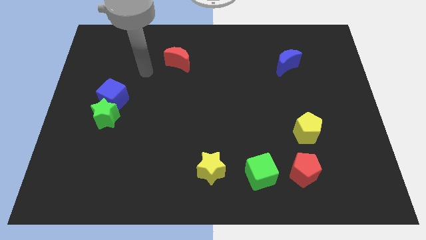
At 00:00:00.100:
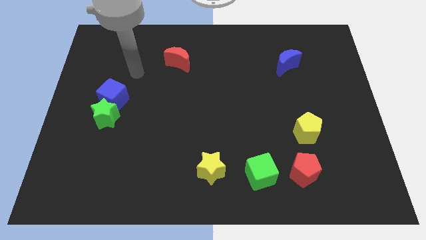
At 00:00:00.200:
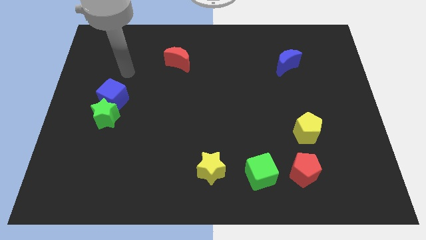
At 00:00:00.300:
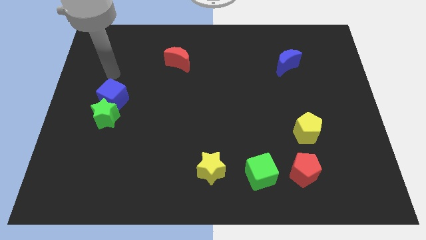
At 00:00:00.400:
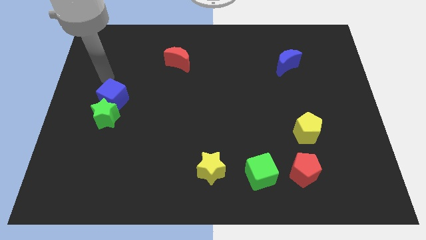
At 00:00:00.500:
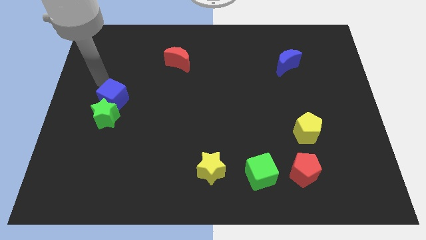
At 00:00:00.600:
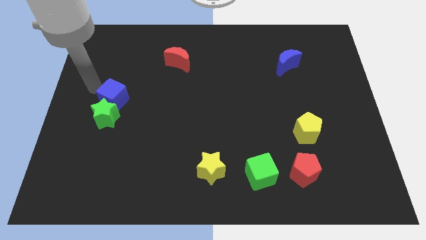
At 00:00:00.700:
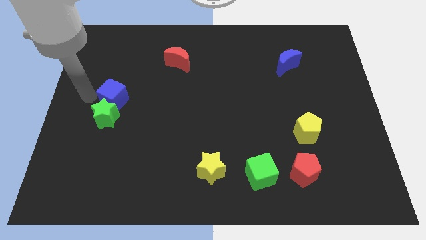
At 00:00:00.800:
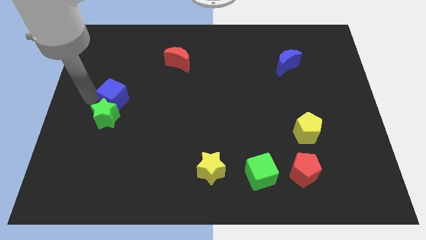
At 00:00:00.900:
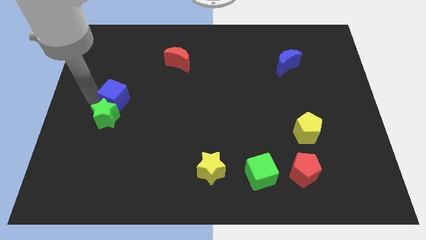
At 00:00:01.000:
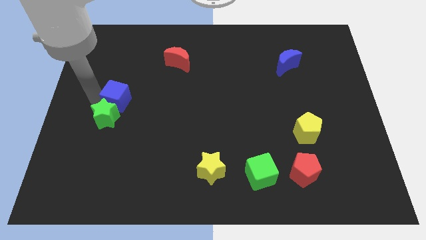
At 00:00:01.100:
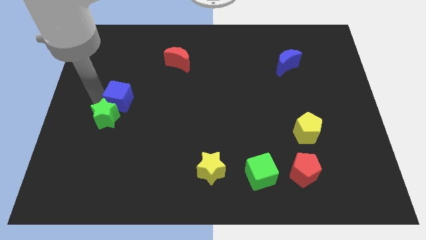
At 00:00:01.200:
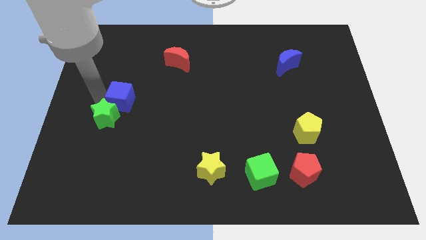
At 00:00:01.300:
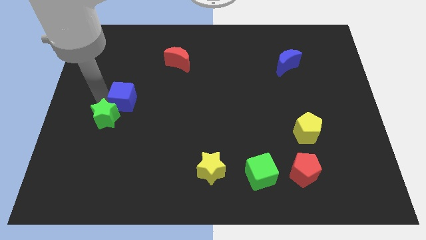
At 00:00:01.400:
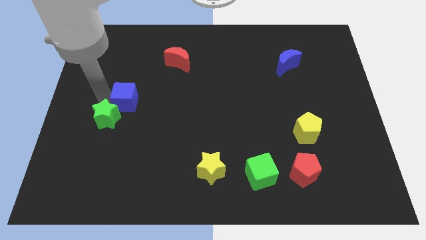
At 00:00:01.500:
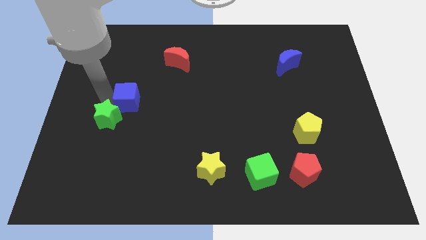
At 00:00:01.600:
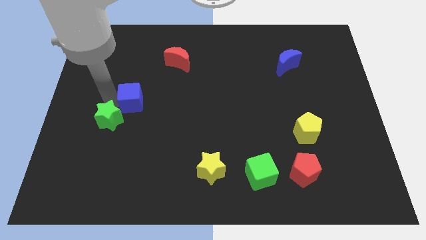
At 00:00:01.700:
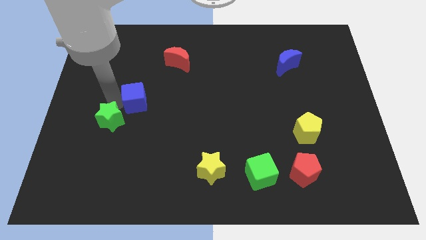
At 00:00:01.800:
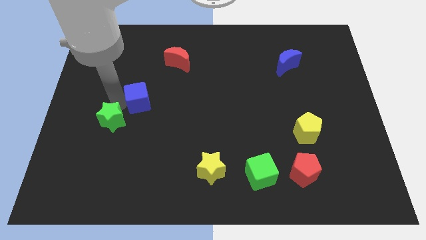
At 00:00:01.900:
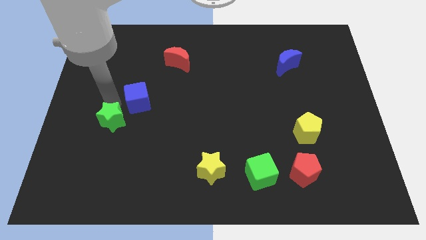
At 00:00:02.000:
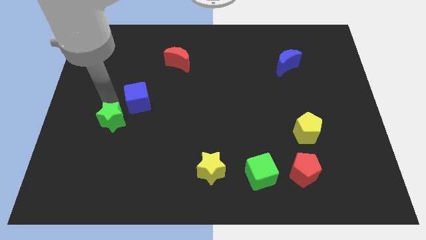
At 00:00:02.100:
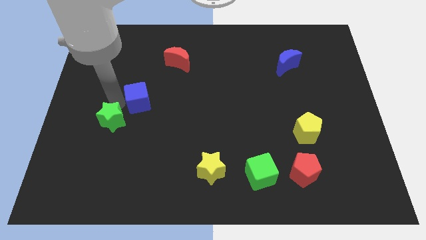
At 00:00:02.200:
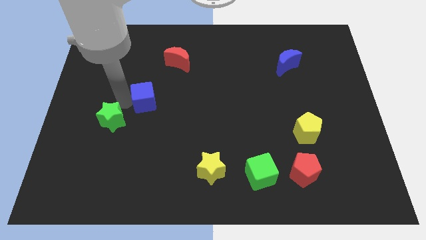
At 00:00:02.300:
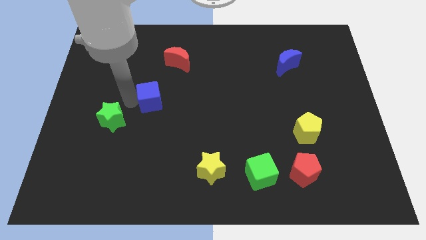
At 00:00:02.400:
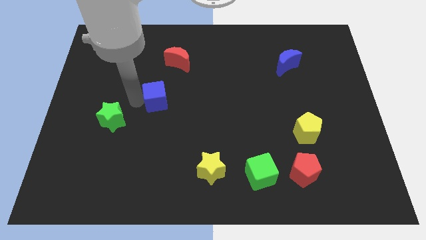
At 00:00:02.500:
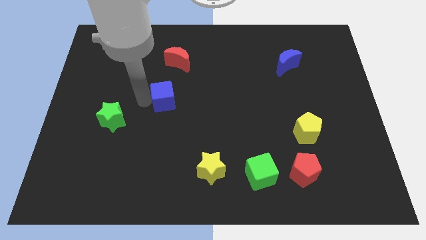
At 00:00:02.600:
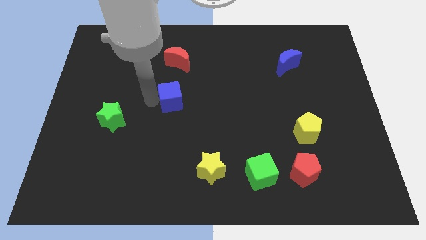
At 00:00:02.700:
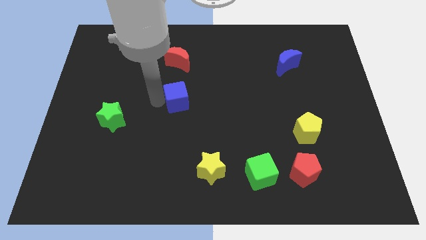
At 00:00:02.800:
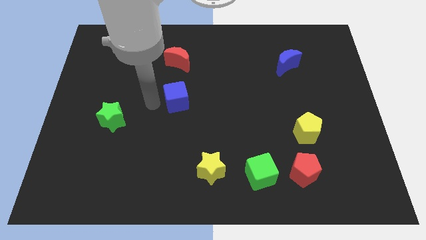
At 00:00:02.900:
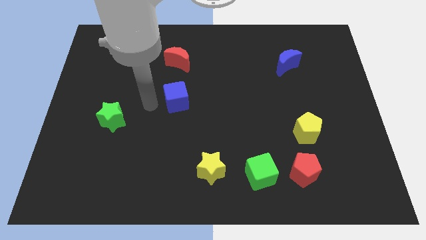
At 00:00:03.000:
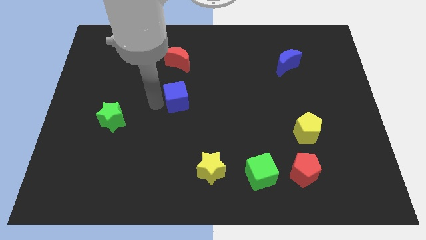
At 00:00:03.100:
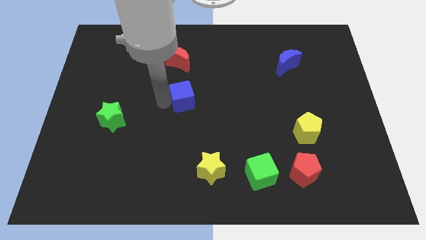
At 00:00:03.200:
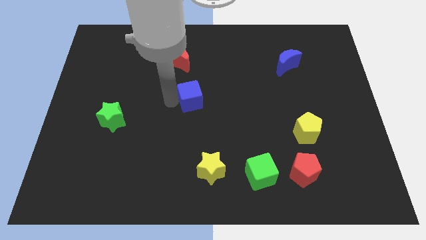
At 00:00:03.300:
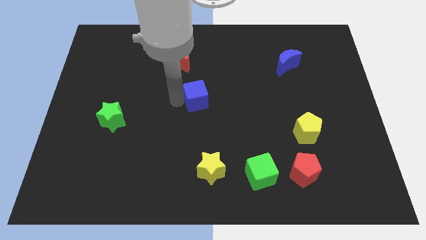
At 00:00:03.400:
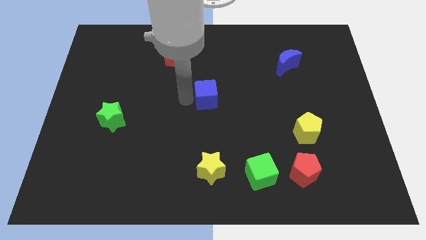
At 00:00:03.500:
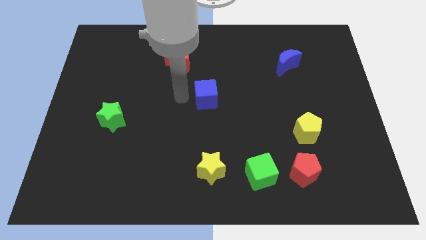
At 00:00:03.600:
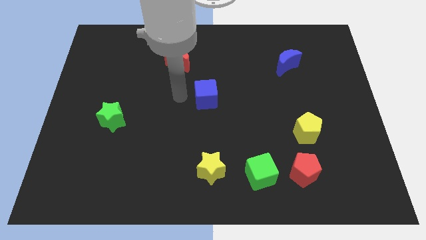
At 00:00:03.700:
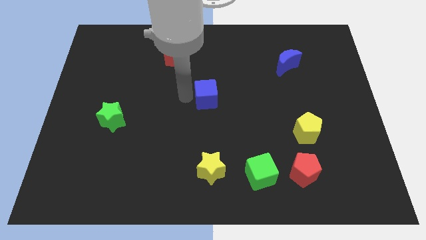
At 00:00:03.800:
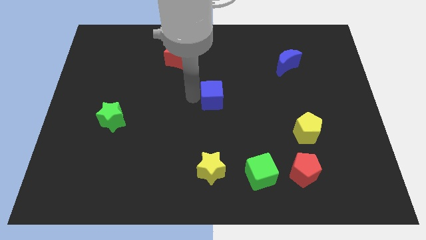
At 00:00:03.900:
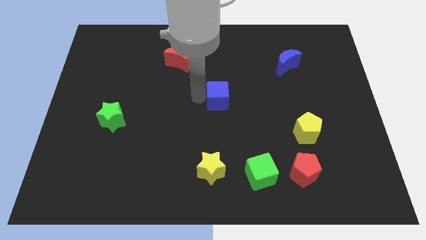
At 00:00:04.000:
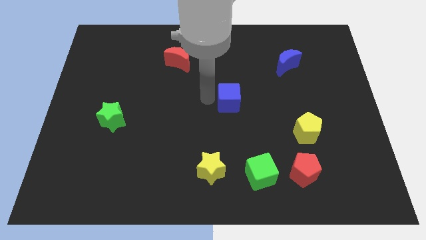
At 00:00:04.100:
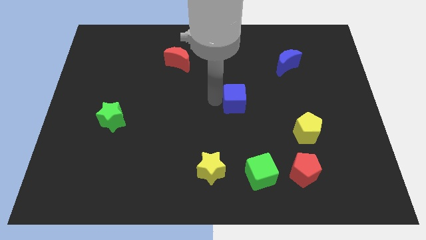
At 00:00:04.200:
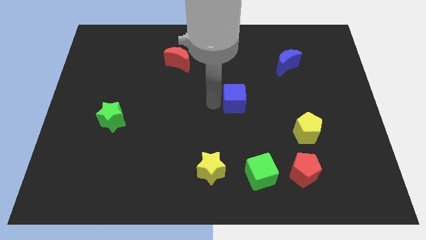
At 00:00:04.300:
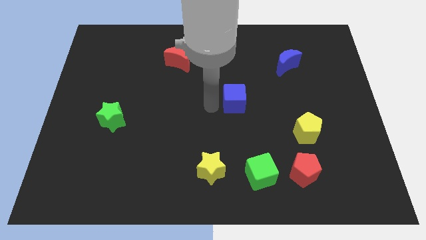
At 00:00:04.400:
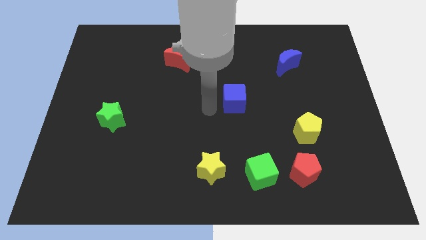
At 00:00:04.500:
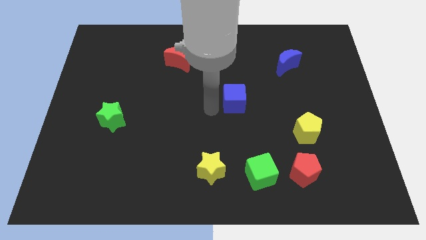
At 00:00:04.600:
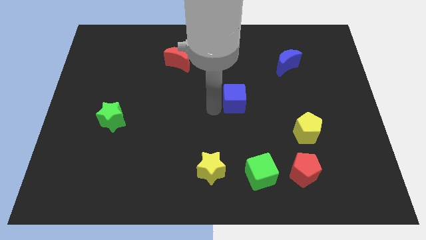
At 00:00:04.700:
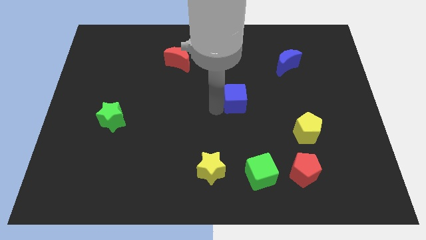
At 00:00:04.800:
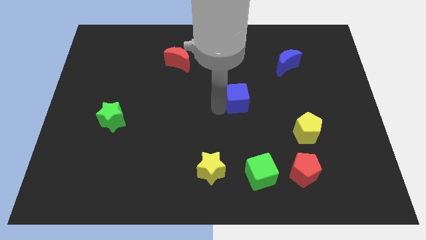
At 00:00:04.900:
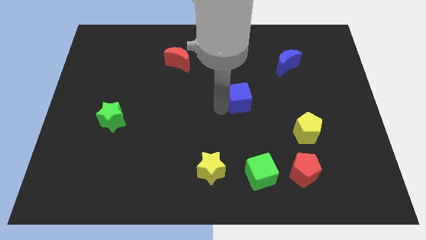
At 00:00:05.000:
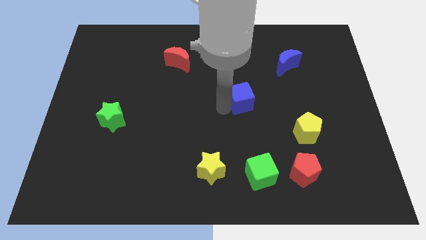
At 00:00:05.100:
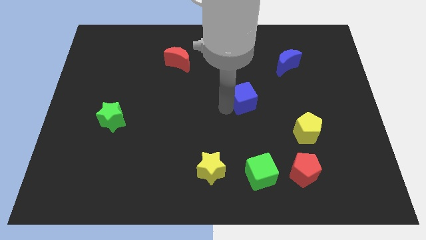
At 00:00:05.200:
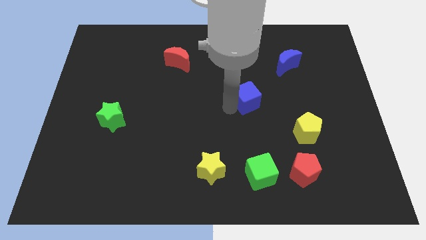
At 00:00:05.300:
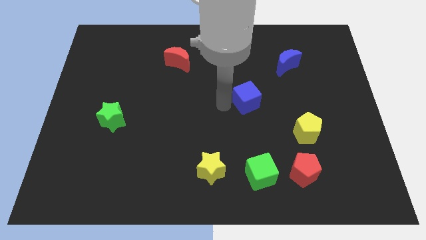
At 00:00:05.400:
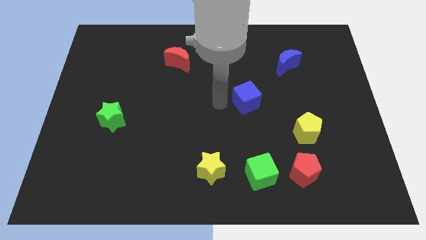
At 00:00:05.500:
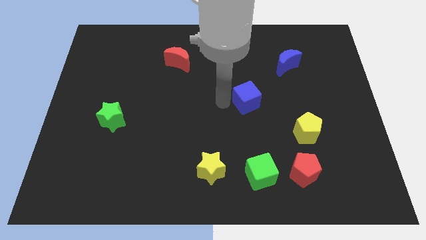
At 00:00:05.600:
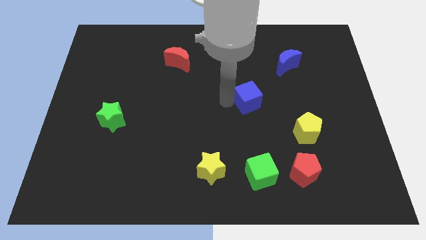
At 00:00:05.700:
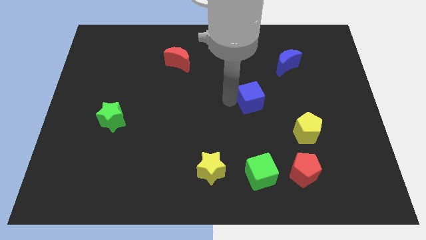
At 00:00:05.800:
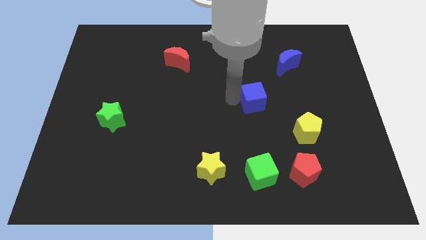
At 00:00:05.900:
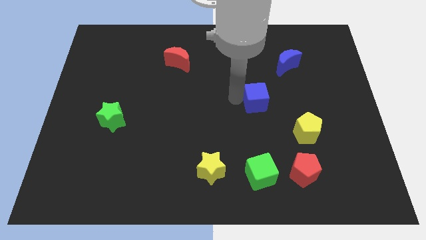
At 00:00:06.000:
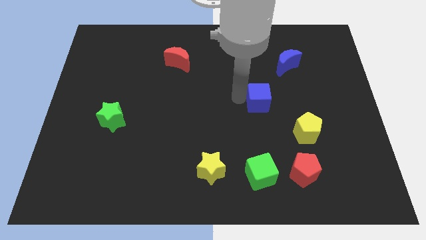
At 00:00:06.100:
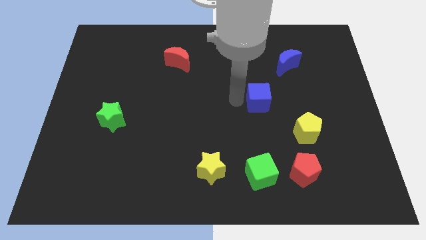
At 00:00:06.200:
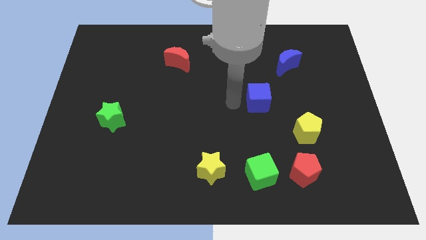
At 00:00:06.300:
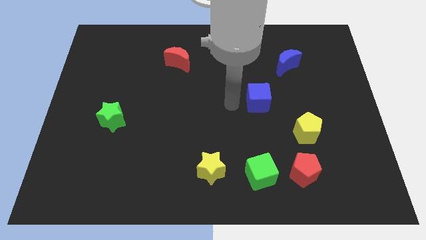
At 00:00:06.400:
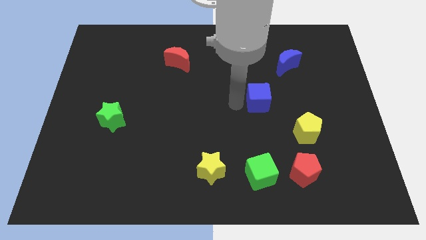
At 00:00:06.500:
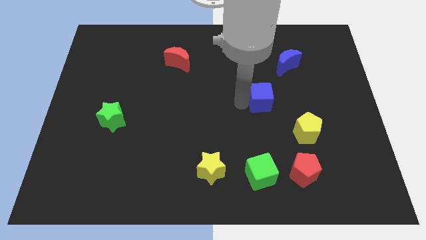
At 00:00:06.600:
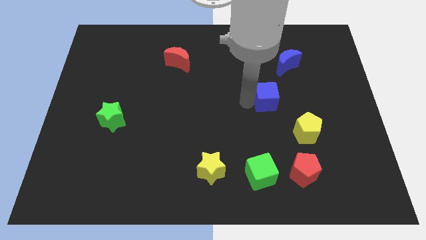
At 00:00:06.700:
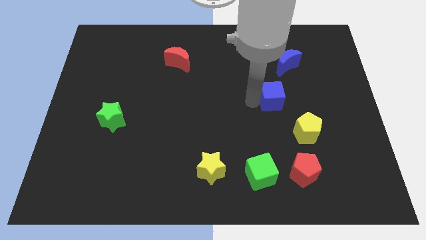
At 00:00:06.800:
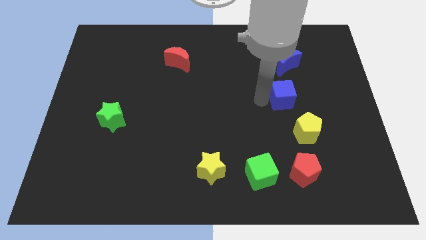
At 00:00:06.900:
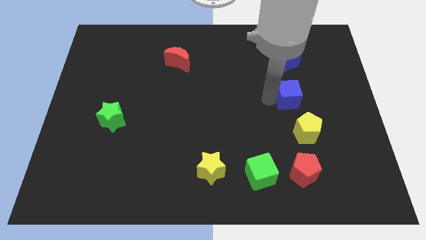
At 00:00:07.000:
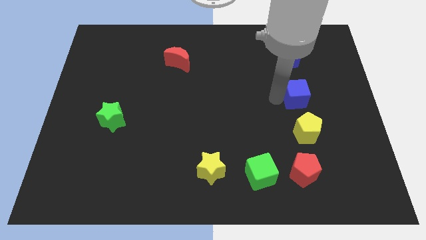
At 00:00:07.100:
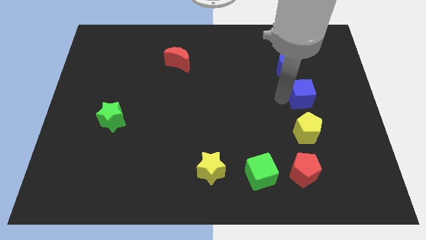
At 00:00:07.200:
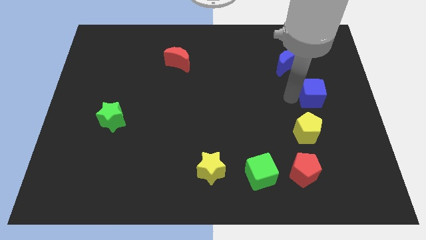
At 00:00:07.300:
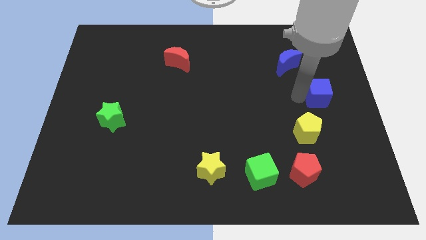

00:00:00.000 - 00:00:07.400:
push the blue cube to the center right
